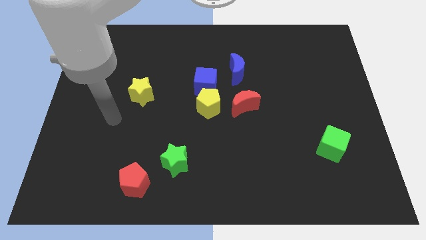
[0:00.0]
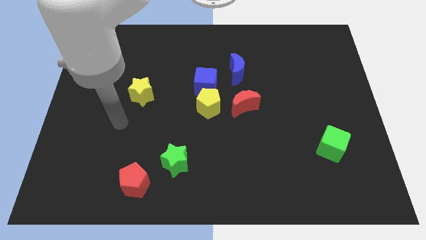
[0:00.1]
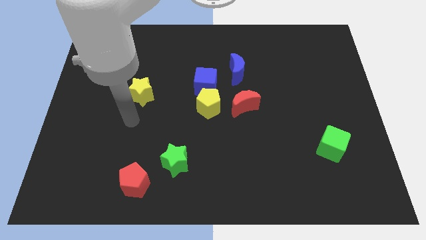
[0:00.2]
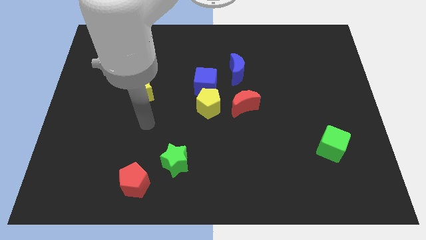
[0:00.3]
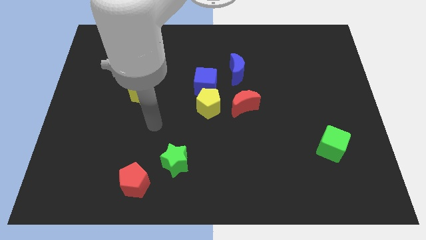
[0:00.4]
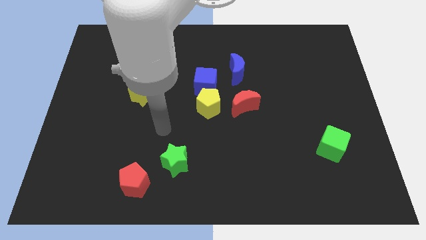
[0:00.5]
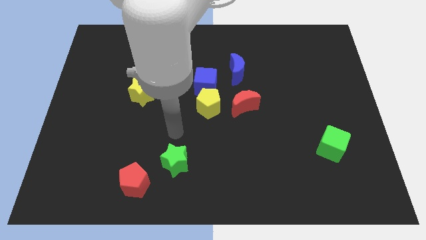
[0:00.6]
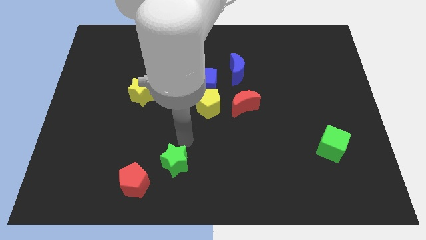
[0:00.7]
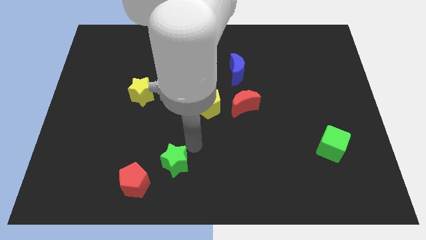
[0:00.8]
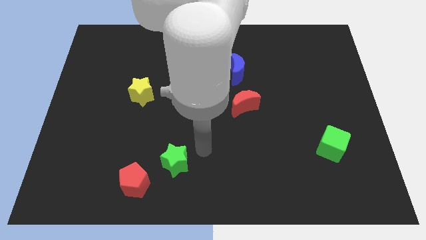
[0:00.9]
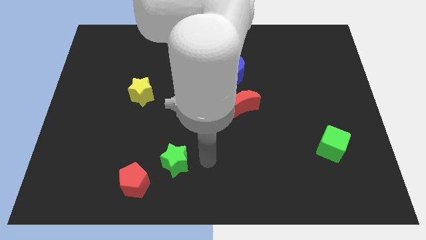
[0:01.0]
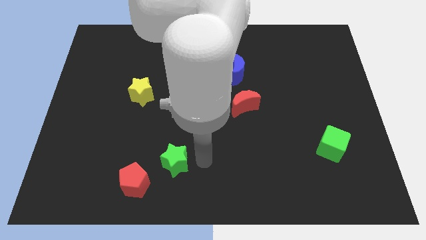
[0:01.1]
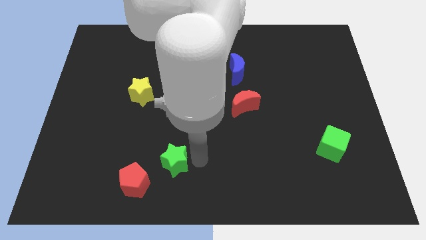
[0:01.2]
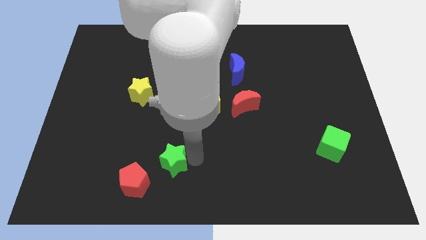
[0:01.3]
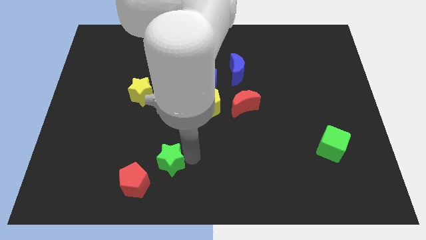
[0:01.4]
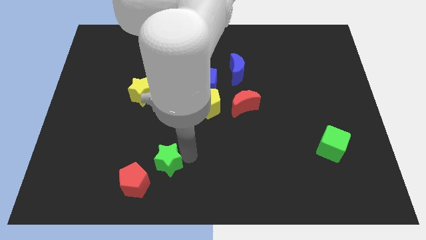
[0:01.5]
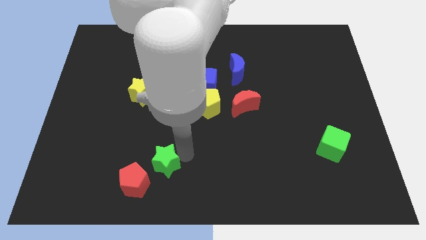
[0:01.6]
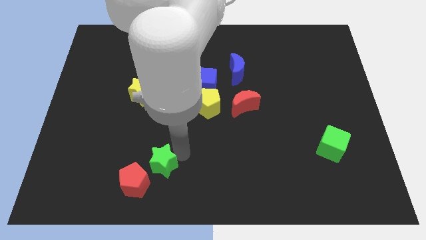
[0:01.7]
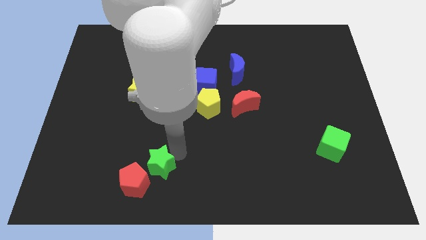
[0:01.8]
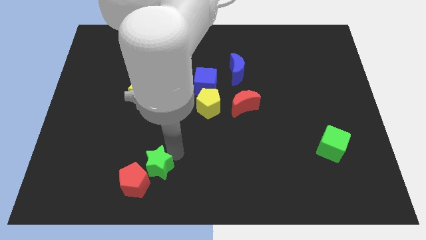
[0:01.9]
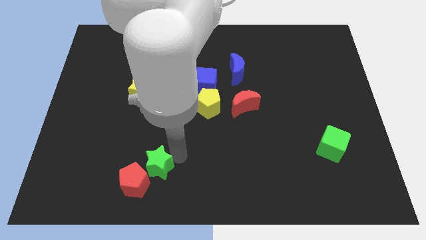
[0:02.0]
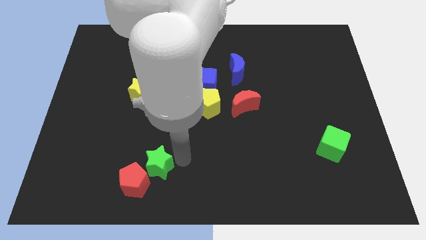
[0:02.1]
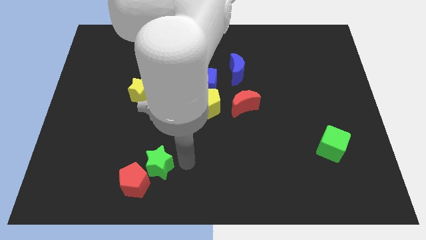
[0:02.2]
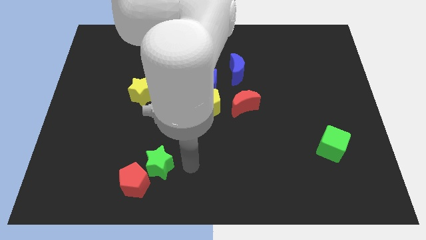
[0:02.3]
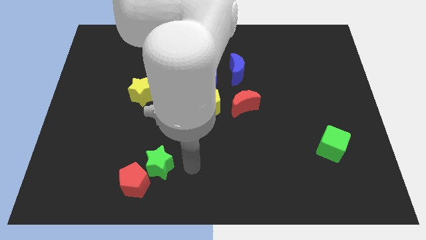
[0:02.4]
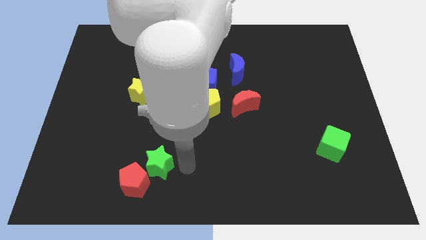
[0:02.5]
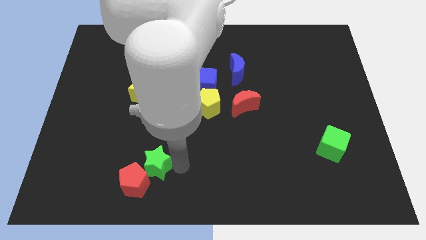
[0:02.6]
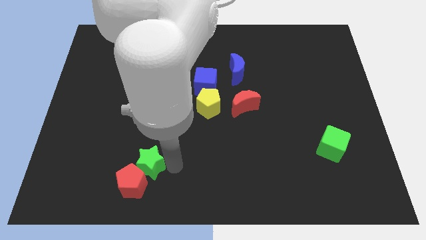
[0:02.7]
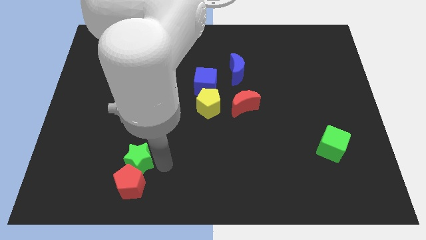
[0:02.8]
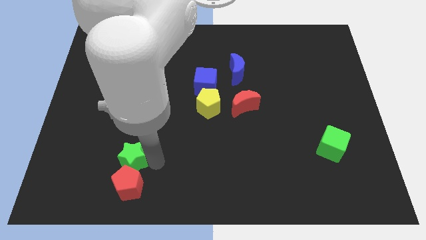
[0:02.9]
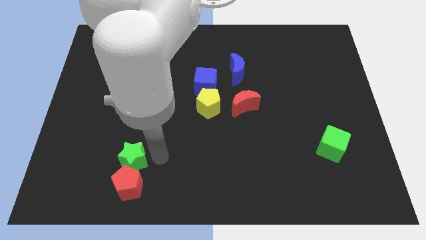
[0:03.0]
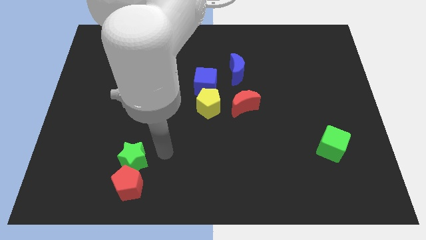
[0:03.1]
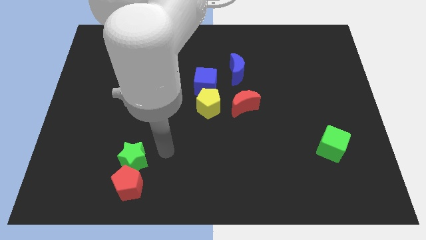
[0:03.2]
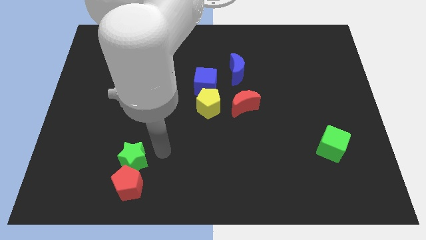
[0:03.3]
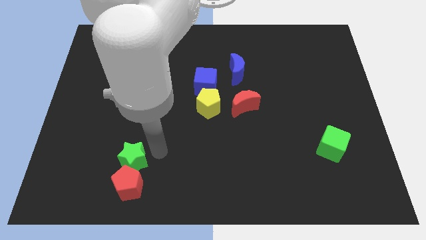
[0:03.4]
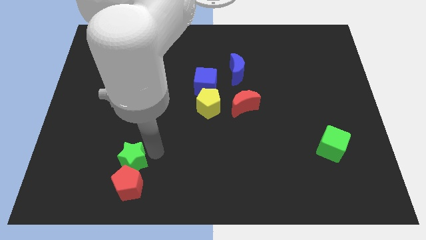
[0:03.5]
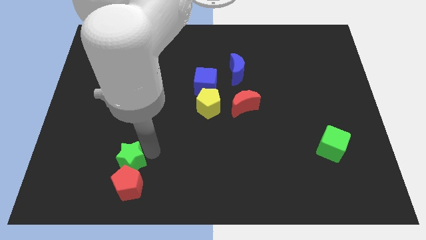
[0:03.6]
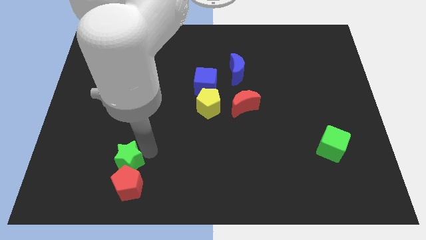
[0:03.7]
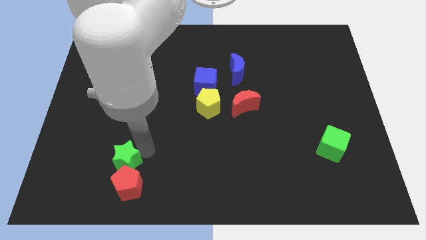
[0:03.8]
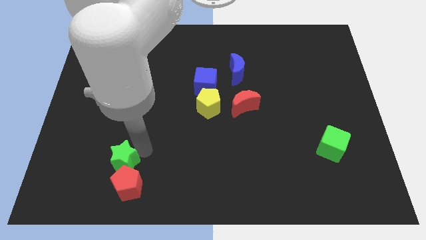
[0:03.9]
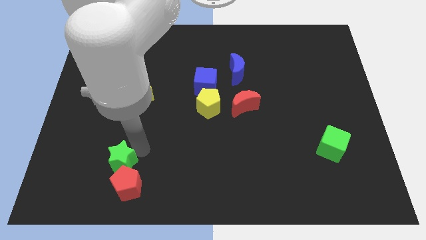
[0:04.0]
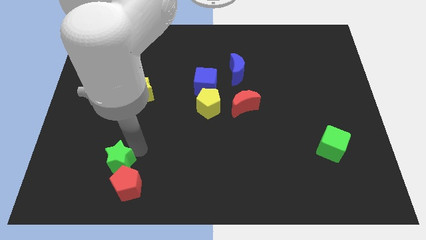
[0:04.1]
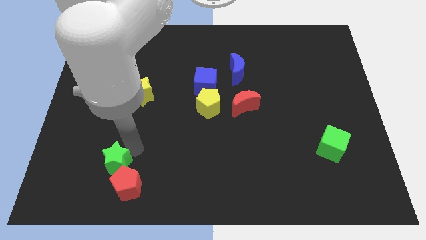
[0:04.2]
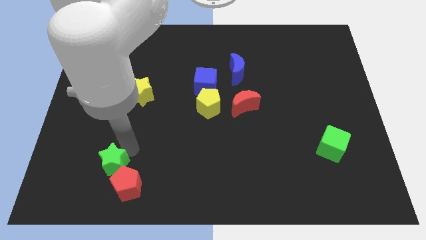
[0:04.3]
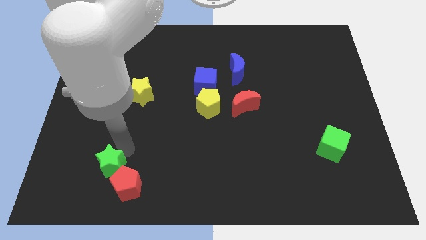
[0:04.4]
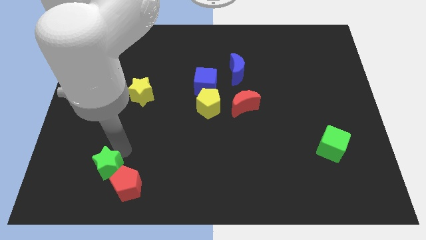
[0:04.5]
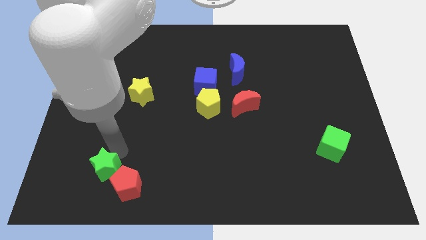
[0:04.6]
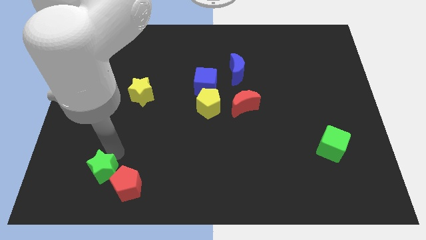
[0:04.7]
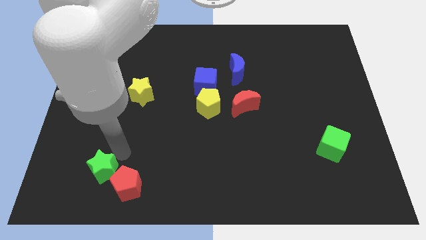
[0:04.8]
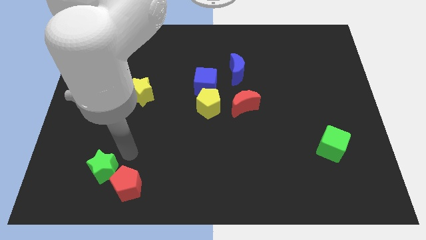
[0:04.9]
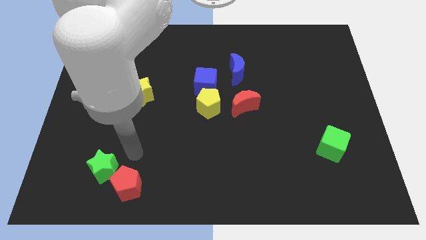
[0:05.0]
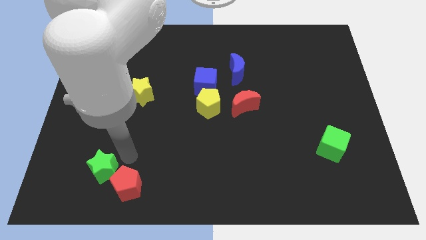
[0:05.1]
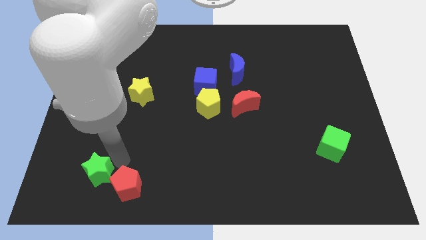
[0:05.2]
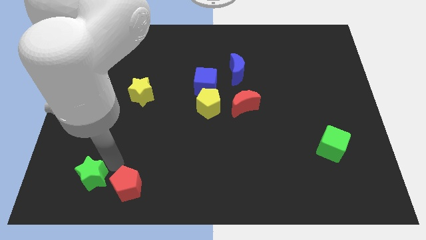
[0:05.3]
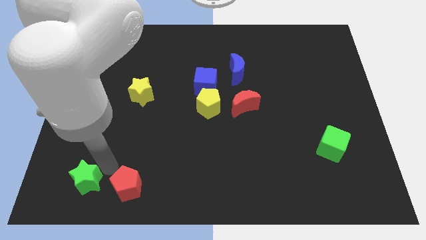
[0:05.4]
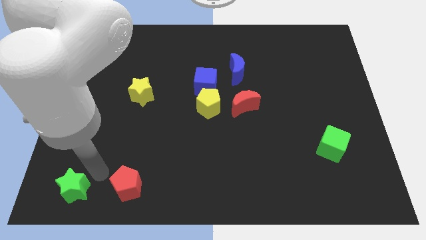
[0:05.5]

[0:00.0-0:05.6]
move the green star to the bottom left

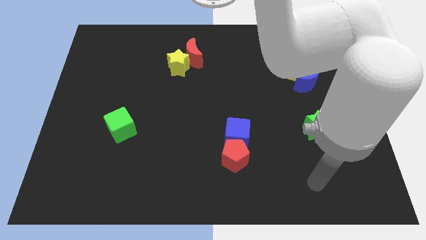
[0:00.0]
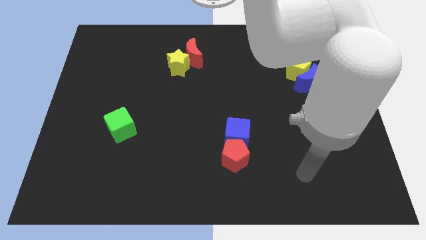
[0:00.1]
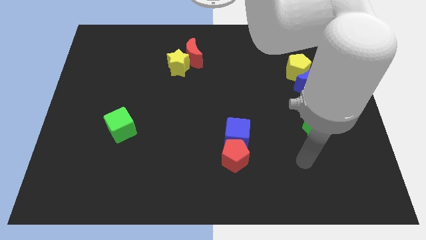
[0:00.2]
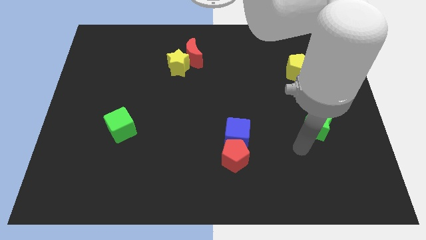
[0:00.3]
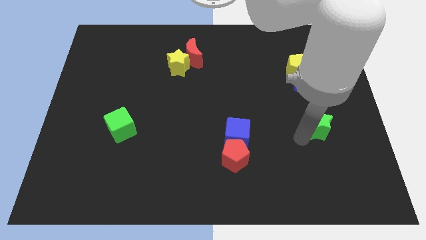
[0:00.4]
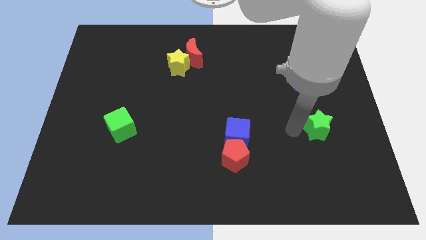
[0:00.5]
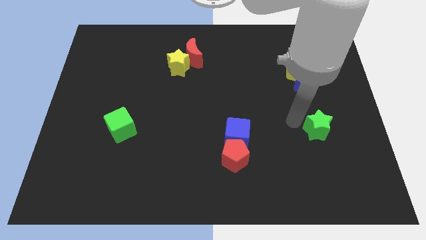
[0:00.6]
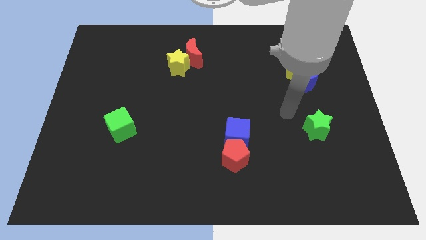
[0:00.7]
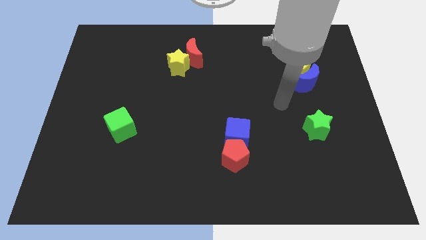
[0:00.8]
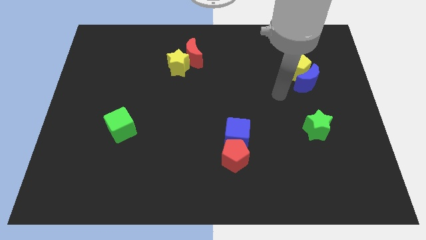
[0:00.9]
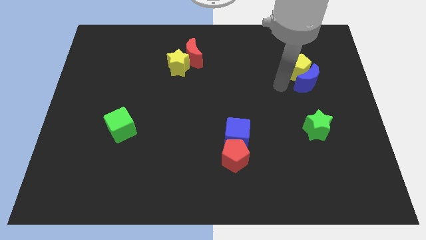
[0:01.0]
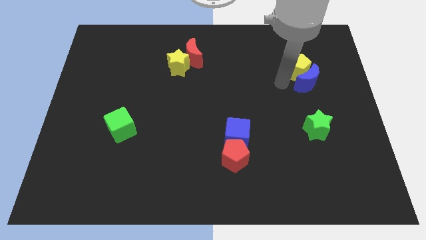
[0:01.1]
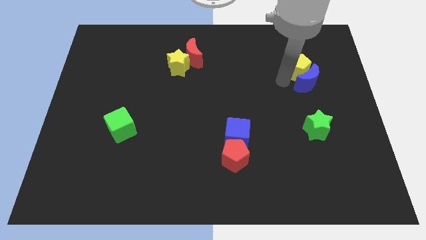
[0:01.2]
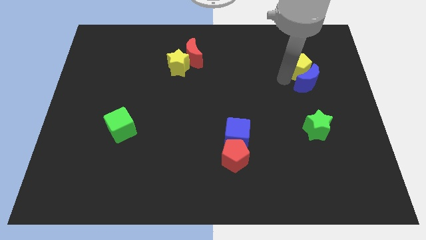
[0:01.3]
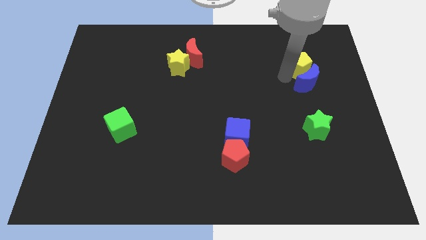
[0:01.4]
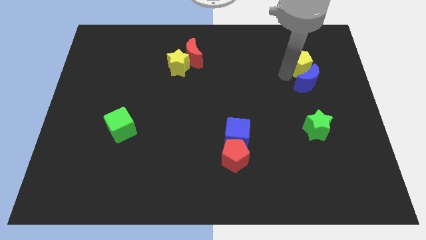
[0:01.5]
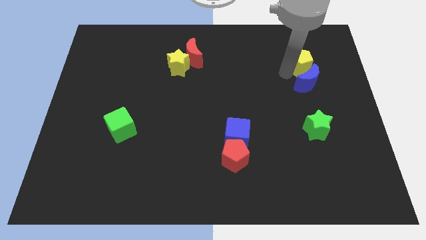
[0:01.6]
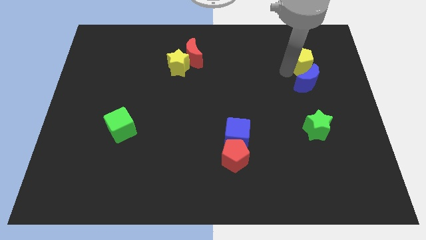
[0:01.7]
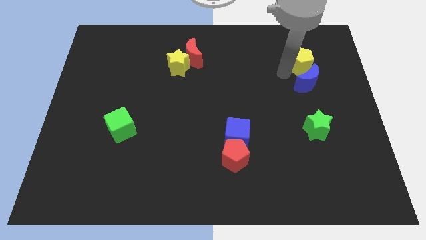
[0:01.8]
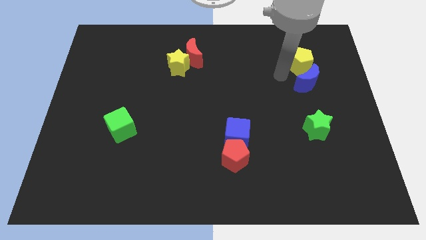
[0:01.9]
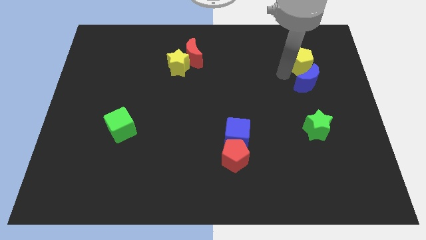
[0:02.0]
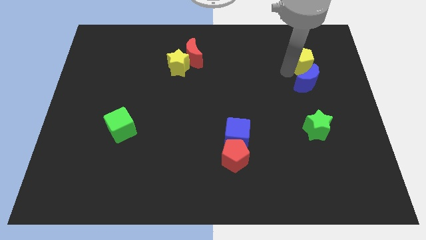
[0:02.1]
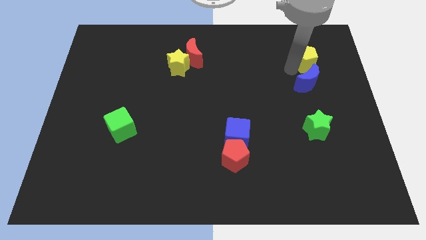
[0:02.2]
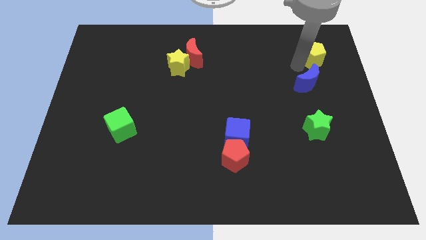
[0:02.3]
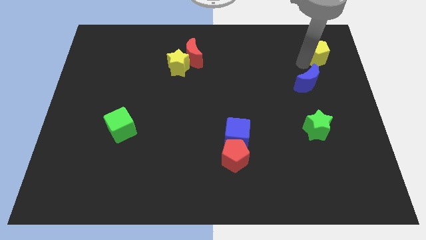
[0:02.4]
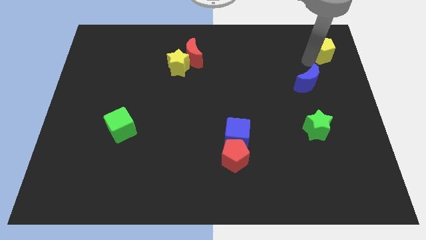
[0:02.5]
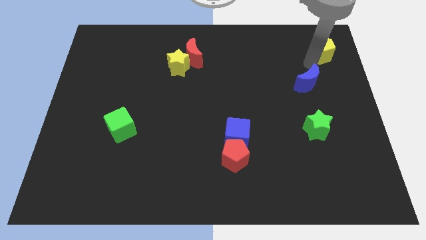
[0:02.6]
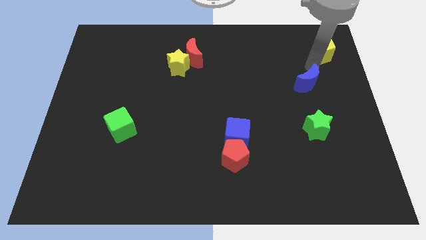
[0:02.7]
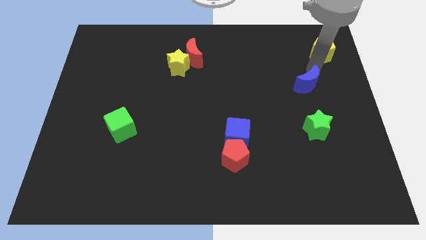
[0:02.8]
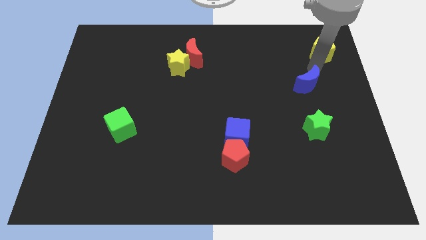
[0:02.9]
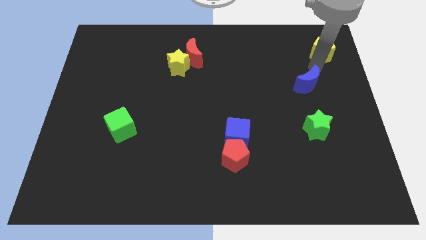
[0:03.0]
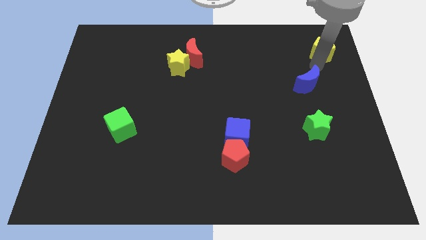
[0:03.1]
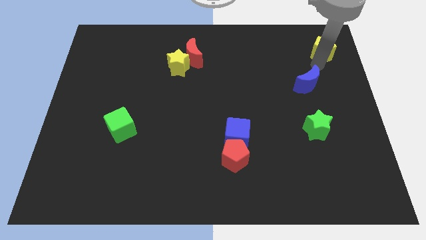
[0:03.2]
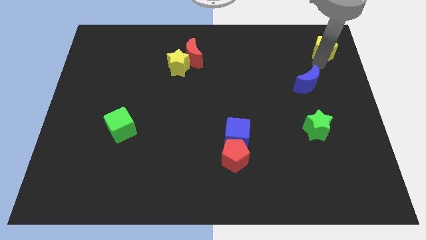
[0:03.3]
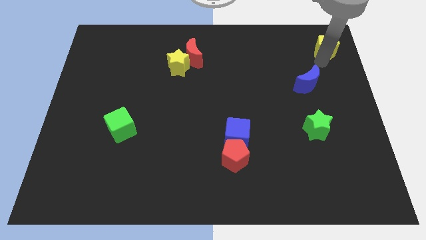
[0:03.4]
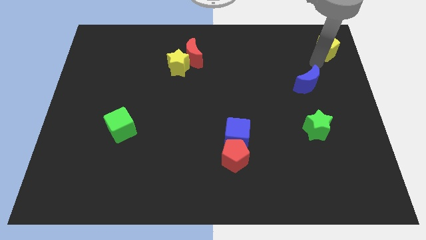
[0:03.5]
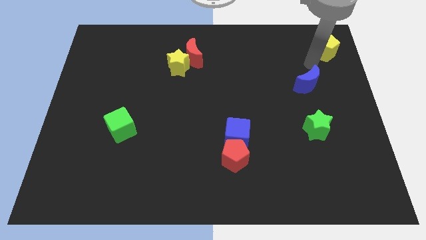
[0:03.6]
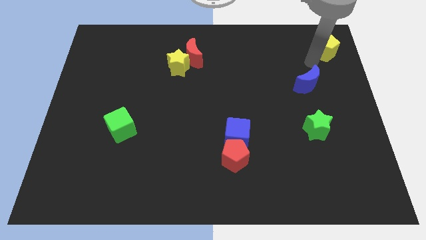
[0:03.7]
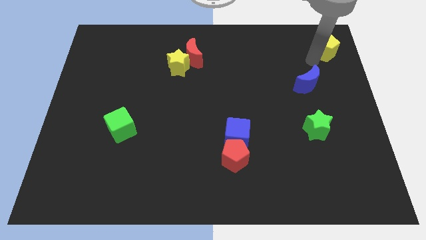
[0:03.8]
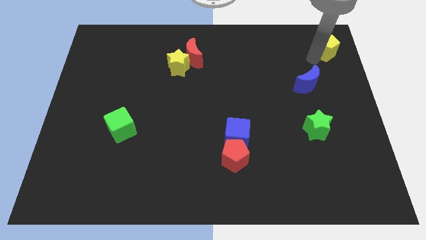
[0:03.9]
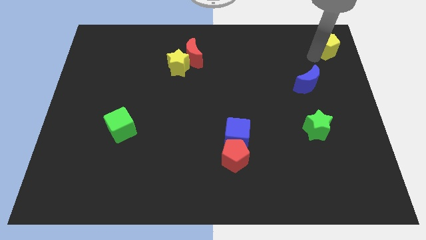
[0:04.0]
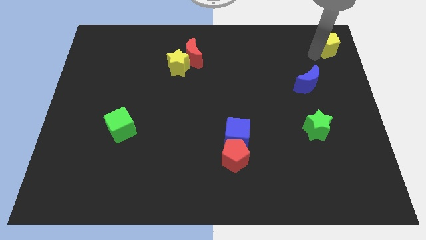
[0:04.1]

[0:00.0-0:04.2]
slide the yellow pentagon to the top right of the board
